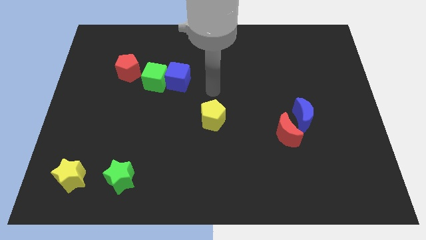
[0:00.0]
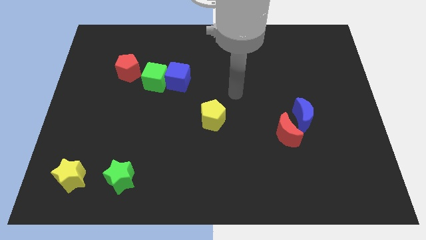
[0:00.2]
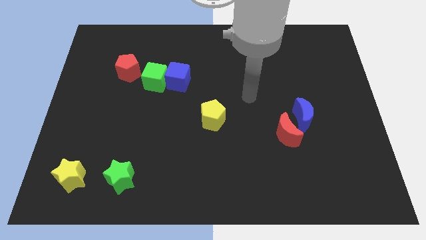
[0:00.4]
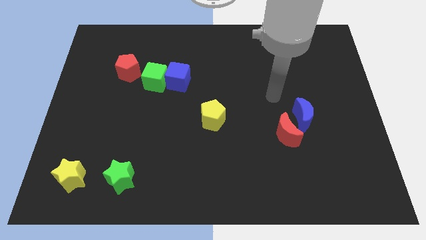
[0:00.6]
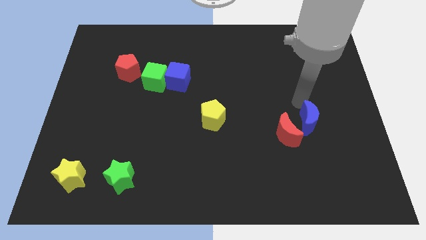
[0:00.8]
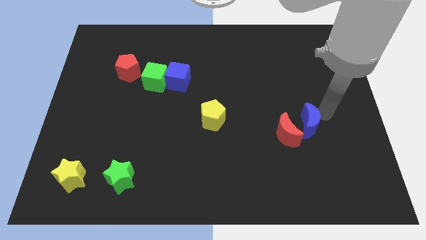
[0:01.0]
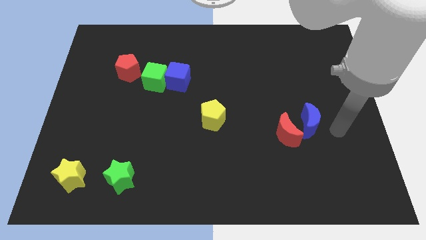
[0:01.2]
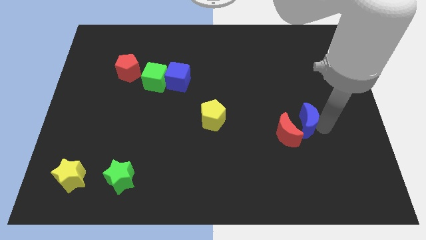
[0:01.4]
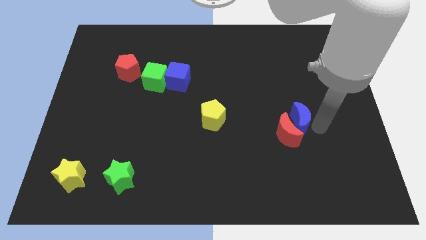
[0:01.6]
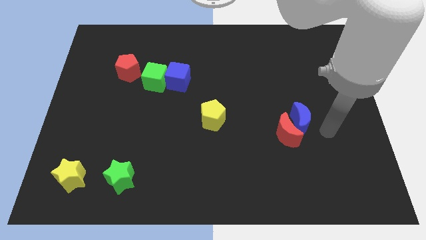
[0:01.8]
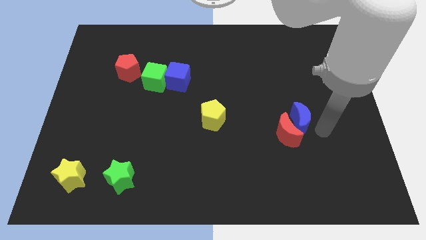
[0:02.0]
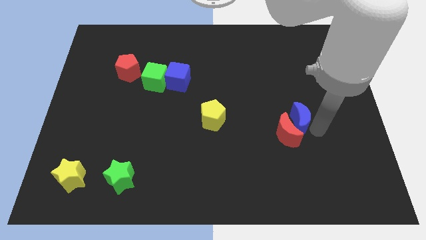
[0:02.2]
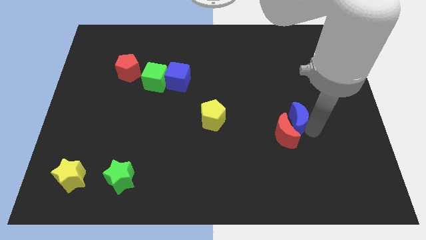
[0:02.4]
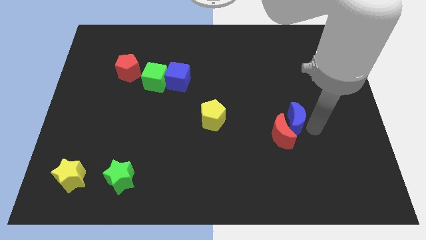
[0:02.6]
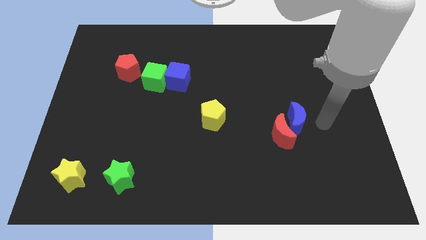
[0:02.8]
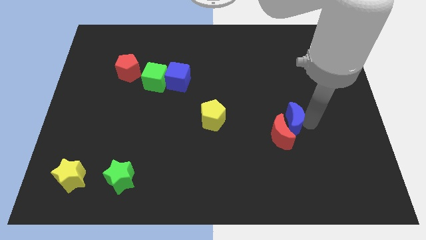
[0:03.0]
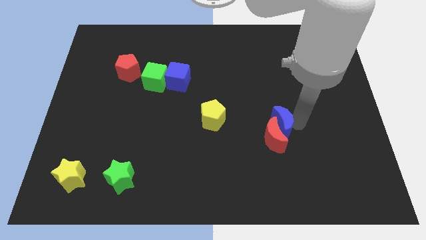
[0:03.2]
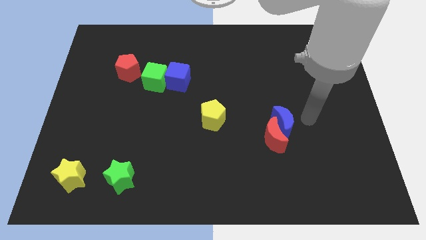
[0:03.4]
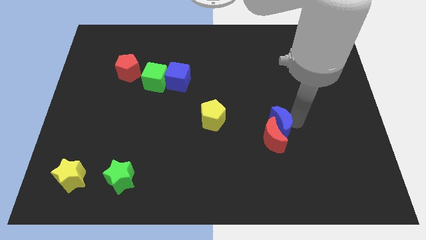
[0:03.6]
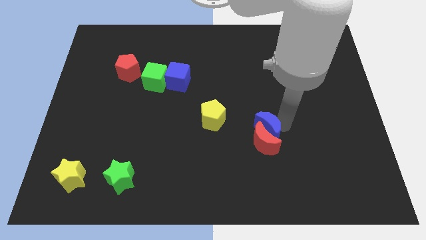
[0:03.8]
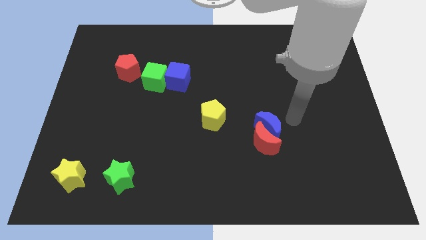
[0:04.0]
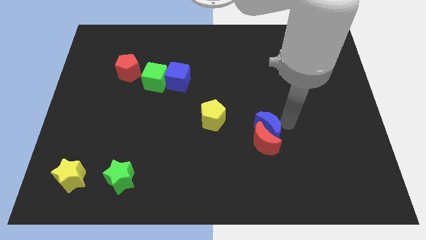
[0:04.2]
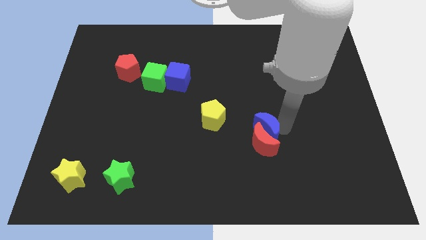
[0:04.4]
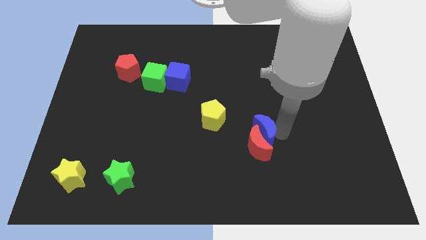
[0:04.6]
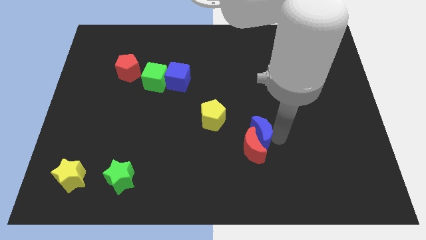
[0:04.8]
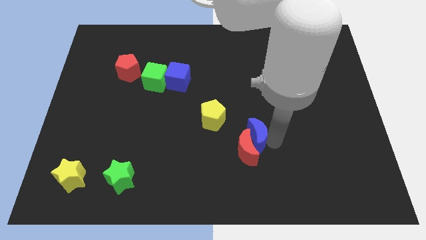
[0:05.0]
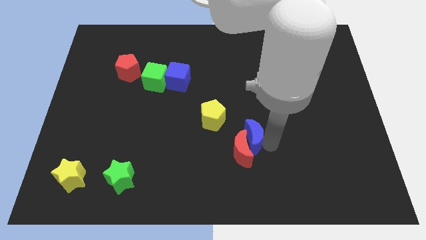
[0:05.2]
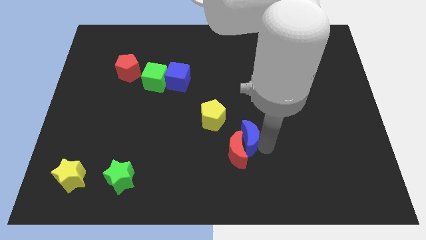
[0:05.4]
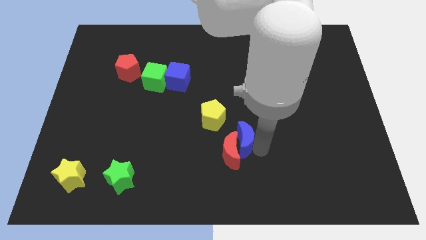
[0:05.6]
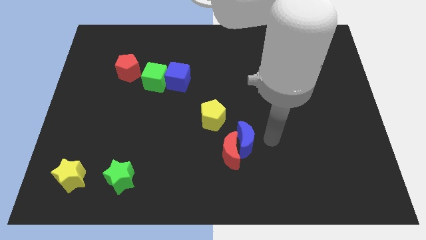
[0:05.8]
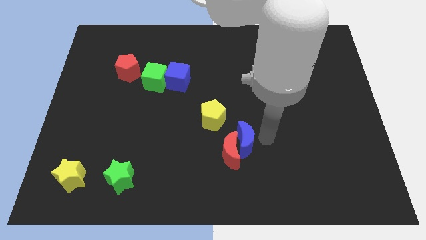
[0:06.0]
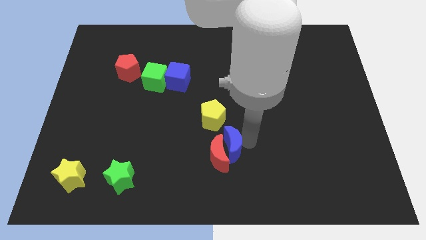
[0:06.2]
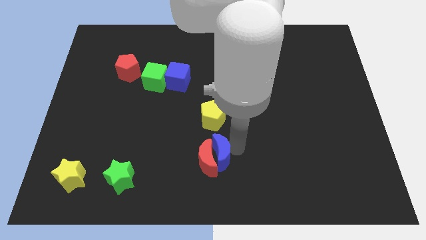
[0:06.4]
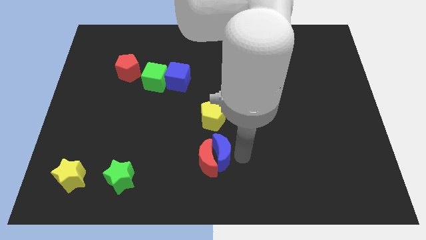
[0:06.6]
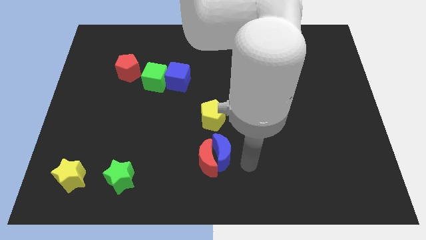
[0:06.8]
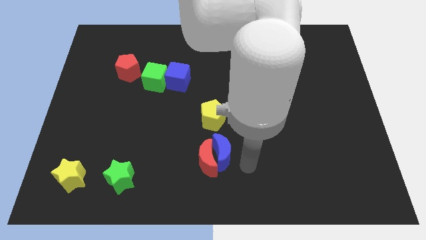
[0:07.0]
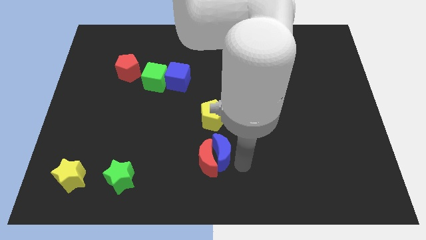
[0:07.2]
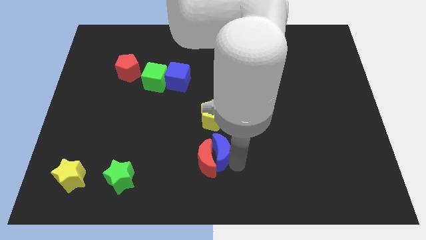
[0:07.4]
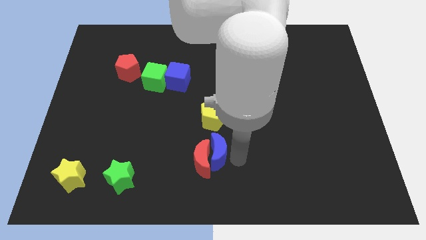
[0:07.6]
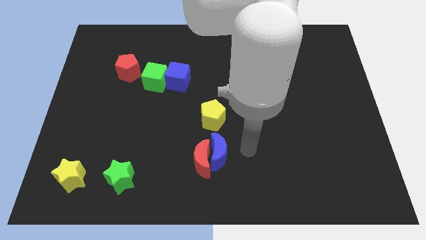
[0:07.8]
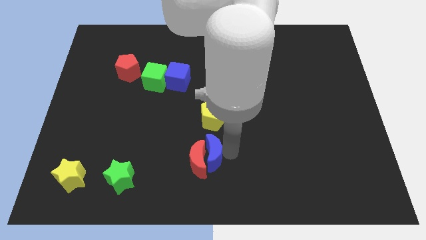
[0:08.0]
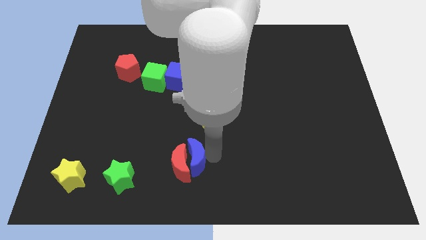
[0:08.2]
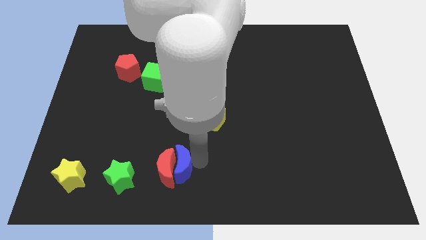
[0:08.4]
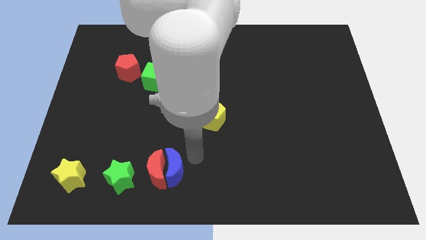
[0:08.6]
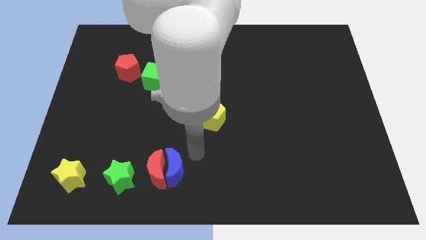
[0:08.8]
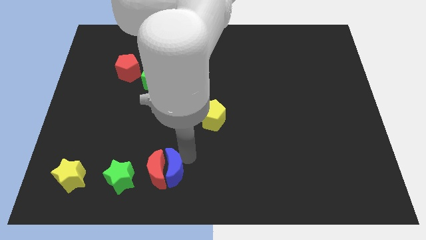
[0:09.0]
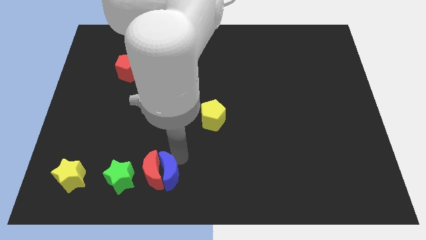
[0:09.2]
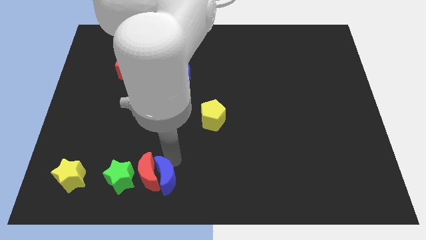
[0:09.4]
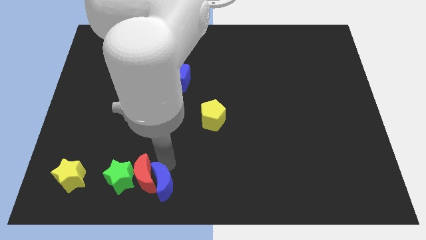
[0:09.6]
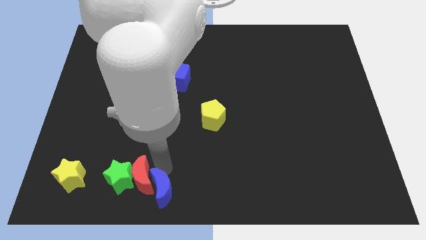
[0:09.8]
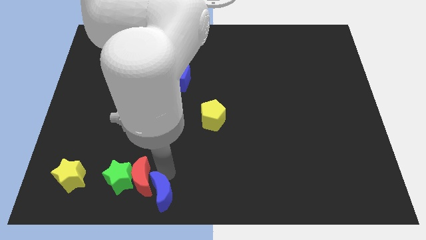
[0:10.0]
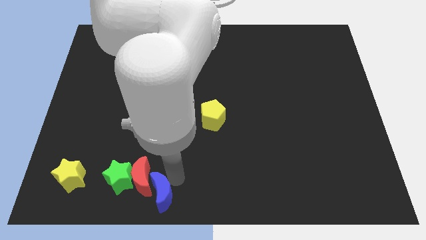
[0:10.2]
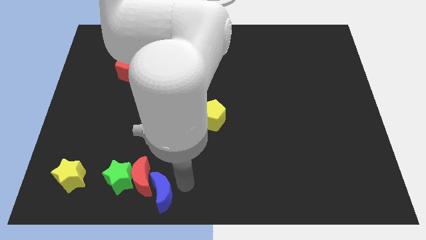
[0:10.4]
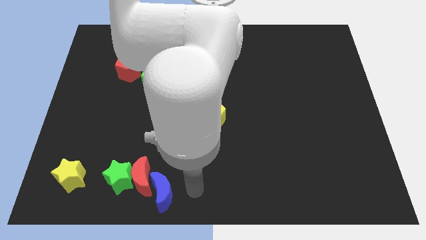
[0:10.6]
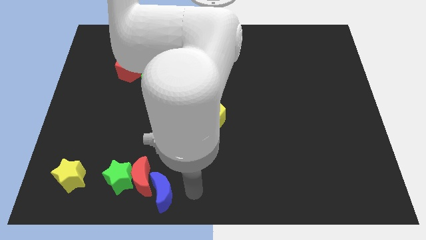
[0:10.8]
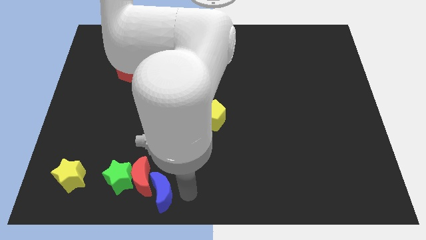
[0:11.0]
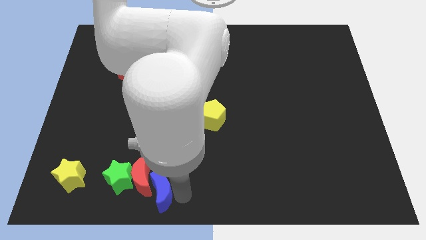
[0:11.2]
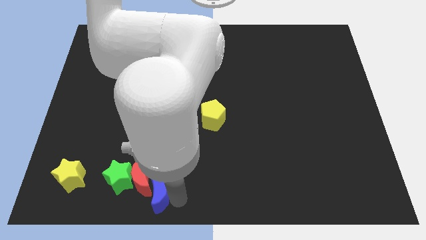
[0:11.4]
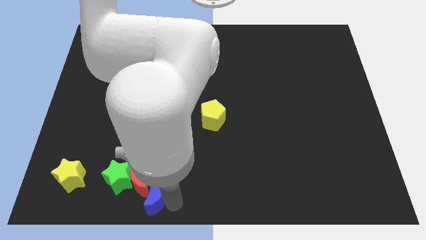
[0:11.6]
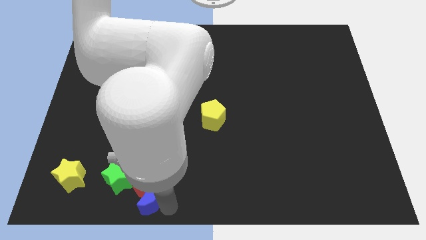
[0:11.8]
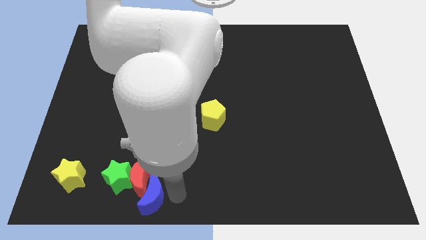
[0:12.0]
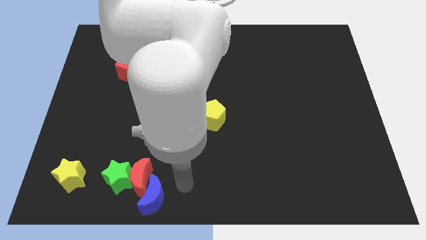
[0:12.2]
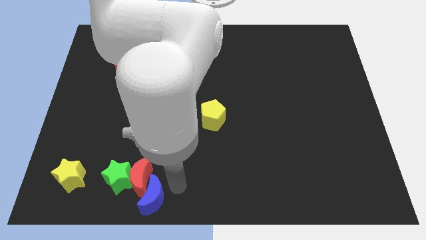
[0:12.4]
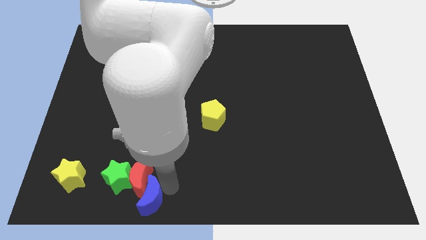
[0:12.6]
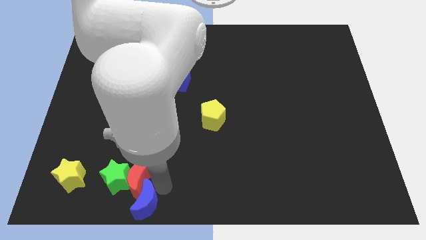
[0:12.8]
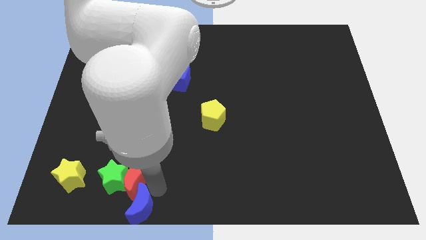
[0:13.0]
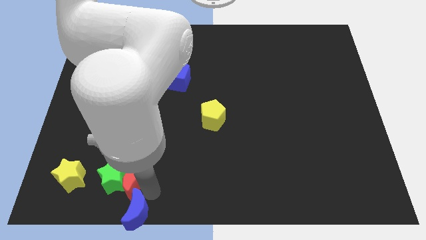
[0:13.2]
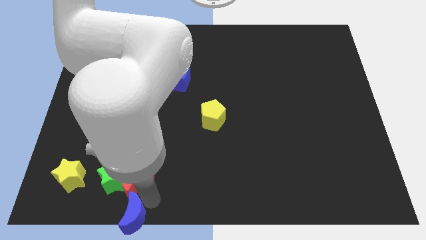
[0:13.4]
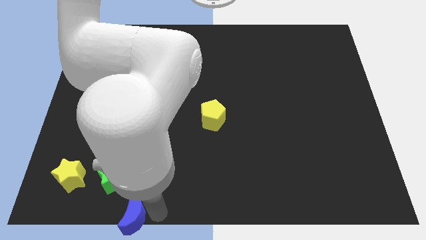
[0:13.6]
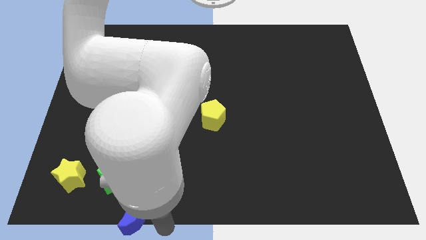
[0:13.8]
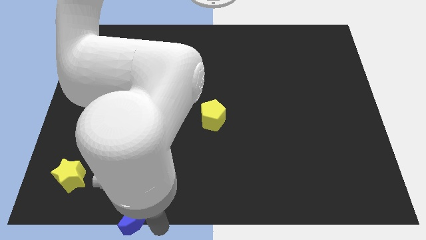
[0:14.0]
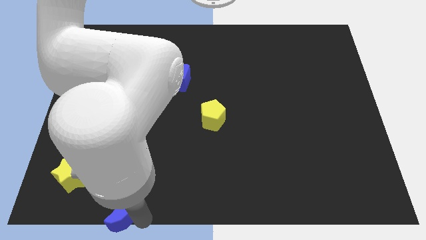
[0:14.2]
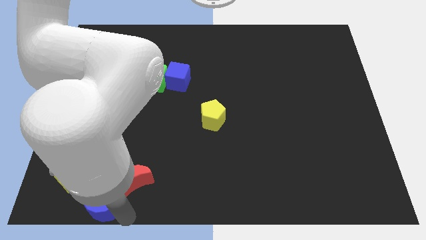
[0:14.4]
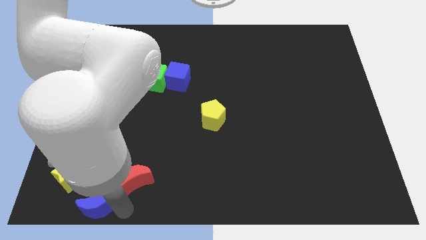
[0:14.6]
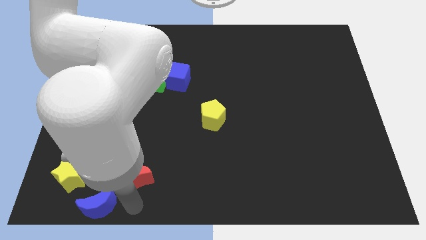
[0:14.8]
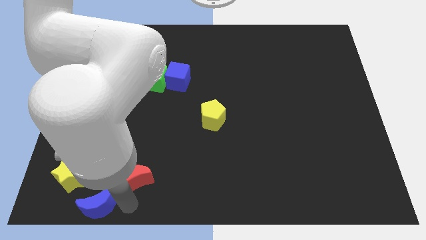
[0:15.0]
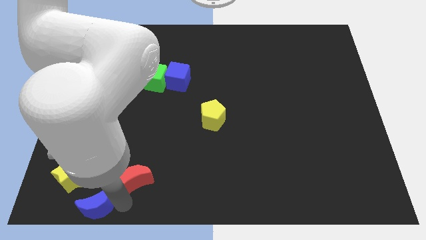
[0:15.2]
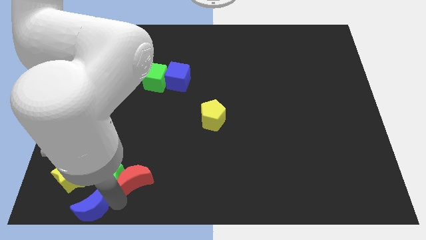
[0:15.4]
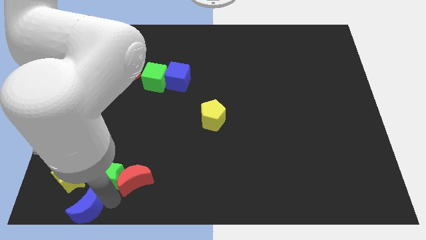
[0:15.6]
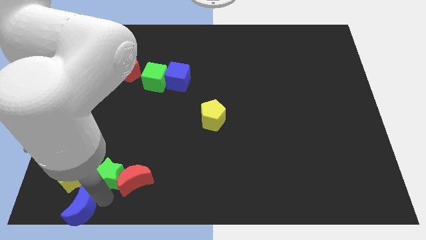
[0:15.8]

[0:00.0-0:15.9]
put the blue moon to the bottom left
